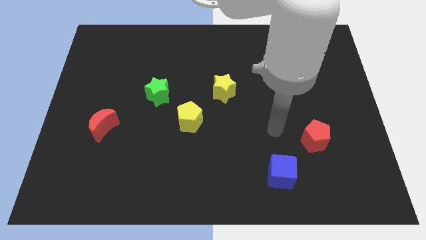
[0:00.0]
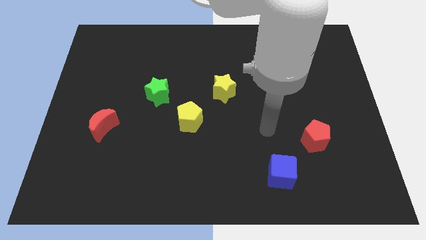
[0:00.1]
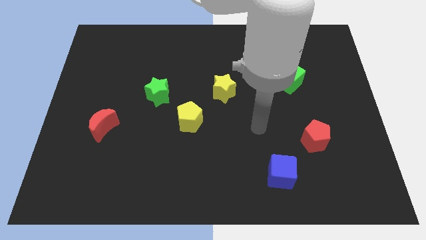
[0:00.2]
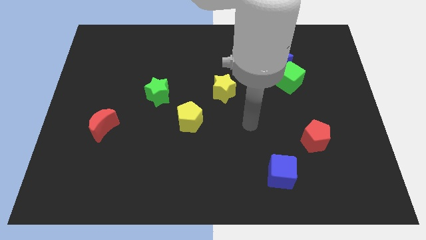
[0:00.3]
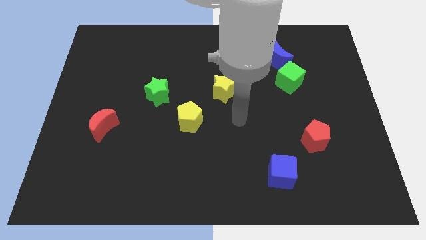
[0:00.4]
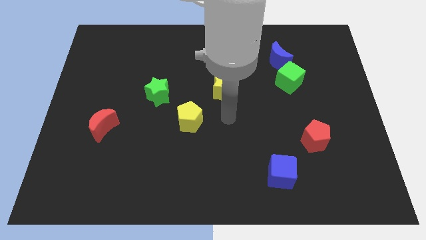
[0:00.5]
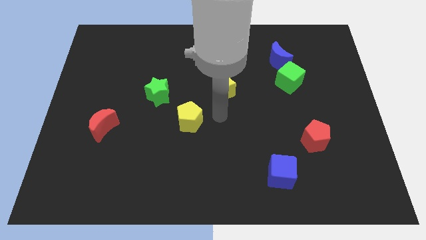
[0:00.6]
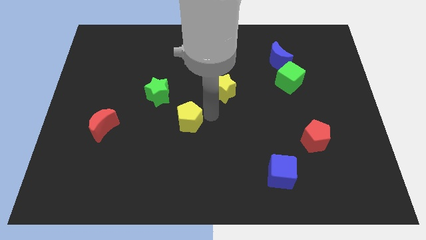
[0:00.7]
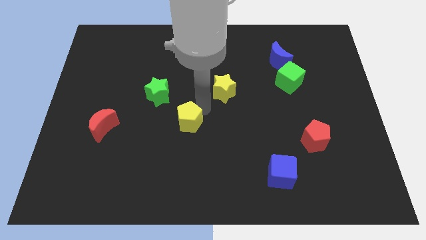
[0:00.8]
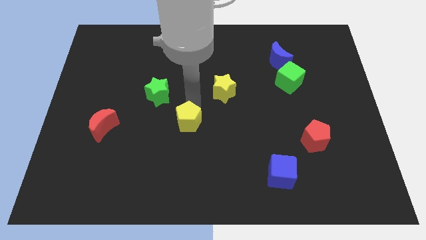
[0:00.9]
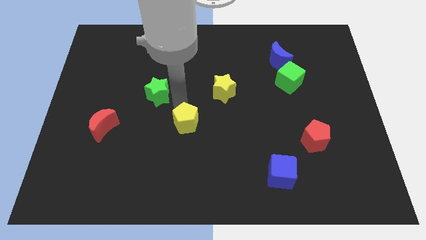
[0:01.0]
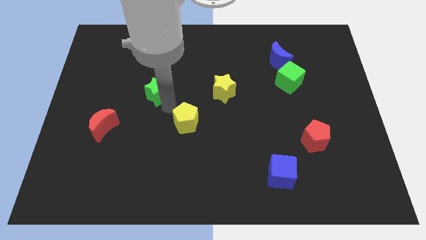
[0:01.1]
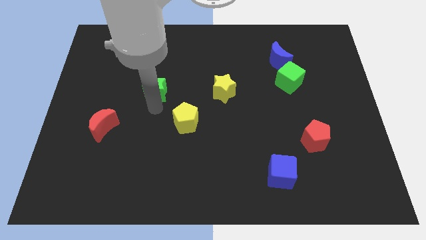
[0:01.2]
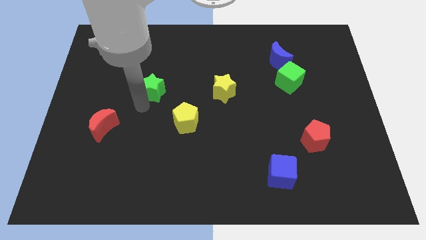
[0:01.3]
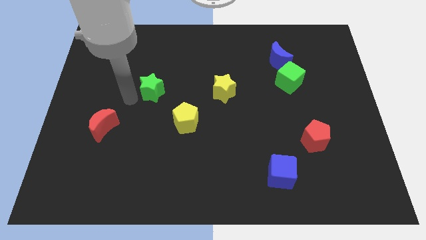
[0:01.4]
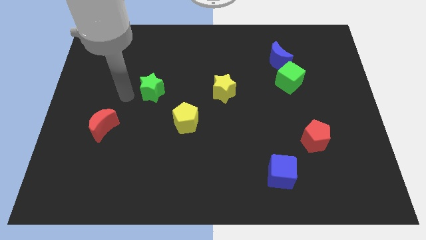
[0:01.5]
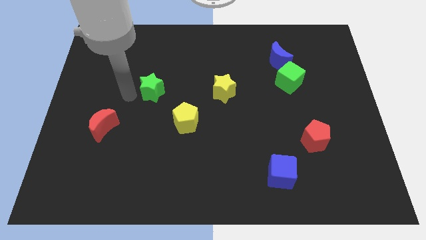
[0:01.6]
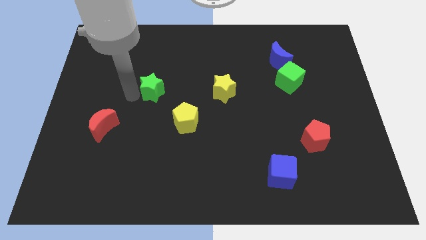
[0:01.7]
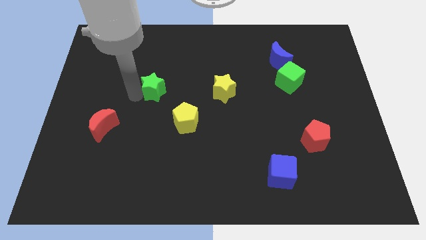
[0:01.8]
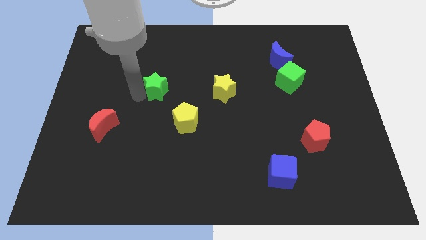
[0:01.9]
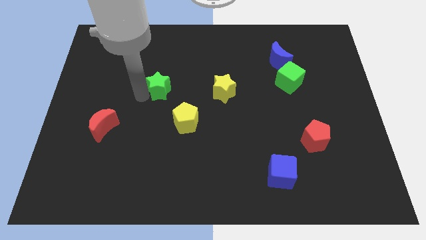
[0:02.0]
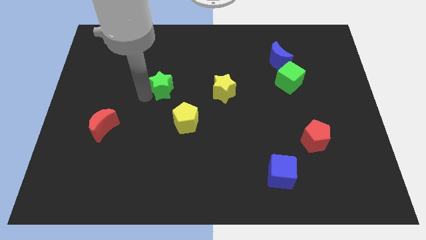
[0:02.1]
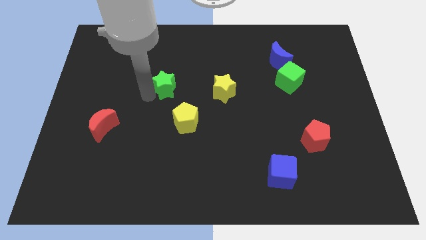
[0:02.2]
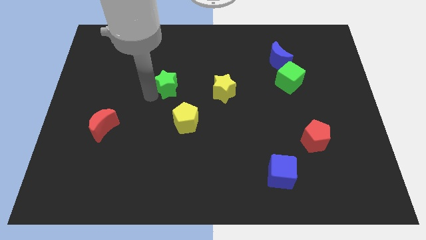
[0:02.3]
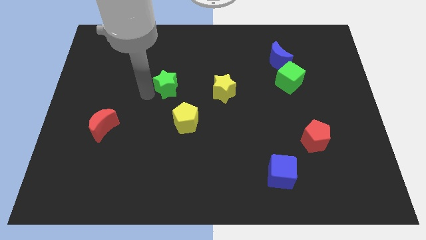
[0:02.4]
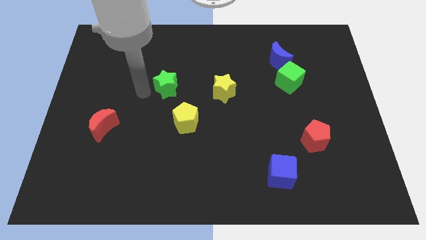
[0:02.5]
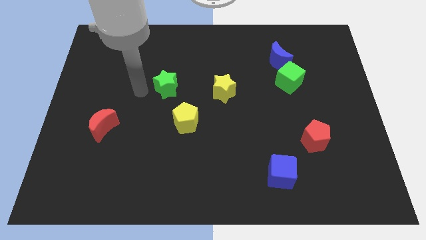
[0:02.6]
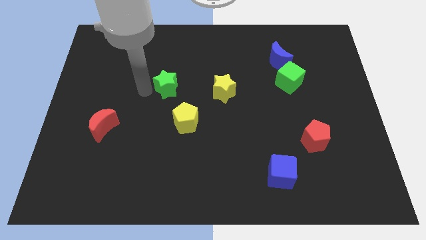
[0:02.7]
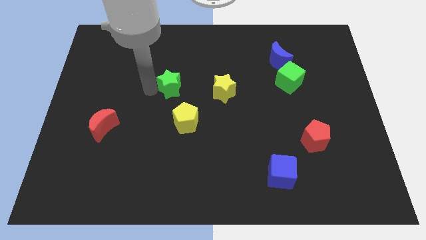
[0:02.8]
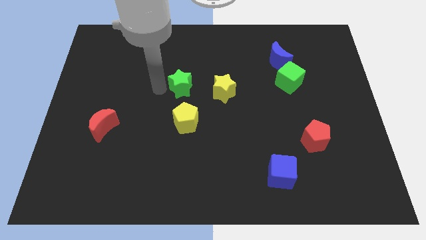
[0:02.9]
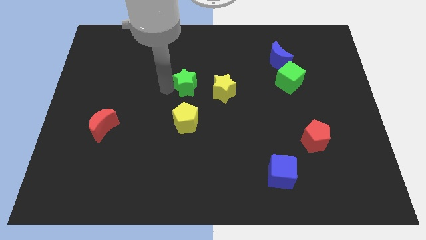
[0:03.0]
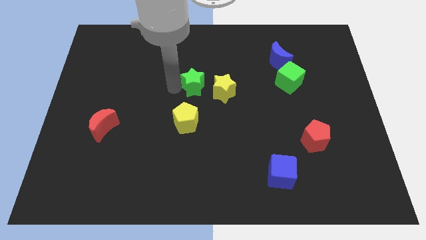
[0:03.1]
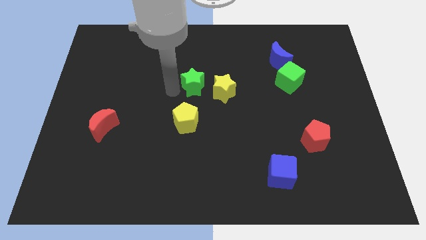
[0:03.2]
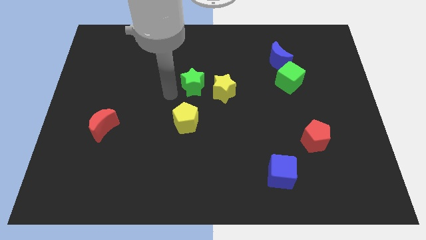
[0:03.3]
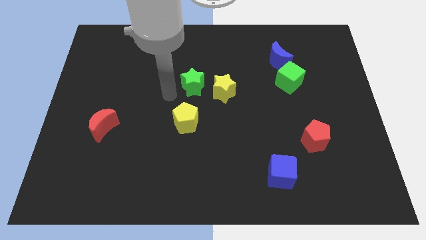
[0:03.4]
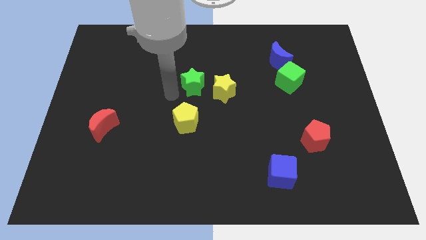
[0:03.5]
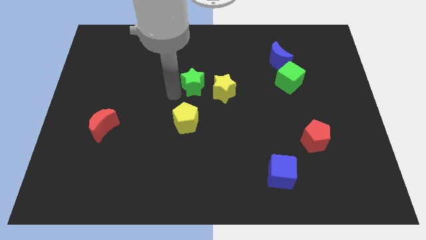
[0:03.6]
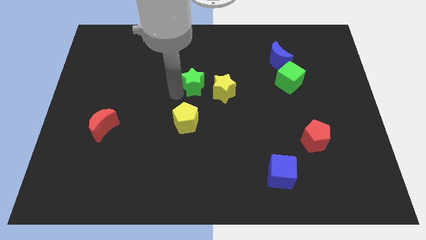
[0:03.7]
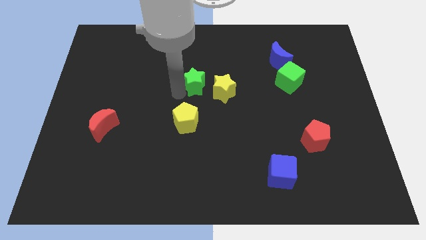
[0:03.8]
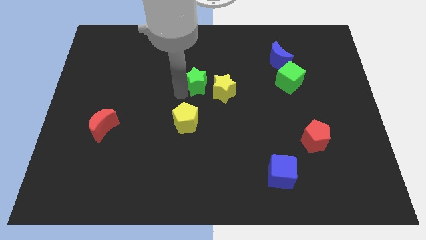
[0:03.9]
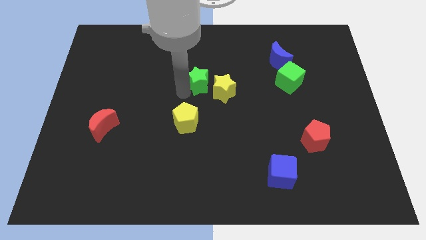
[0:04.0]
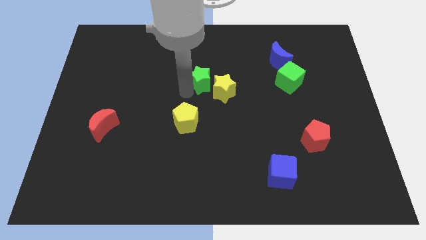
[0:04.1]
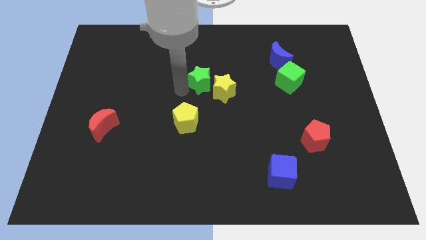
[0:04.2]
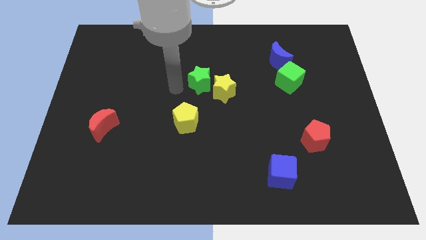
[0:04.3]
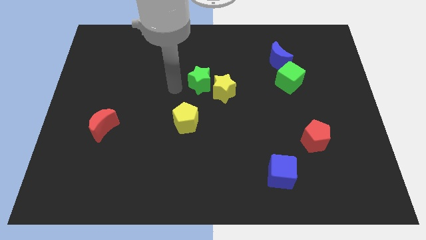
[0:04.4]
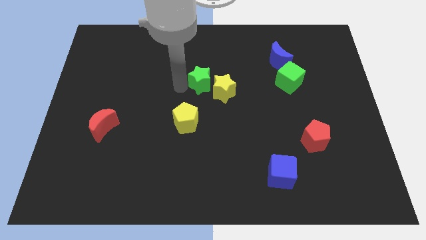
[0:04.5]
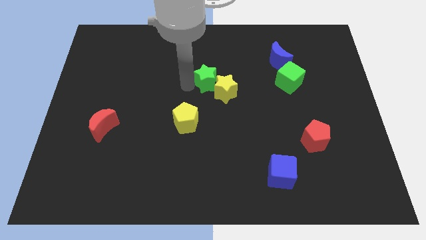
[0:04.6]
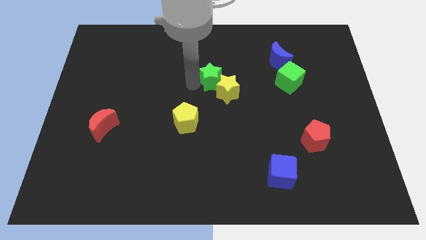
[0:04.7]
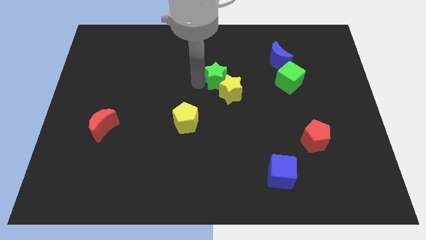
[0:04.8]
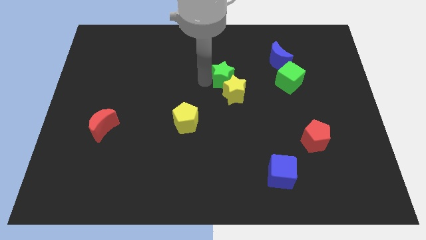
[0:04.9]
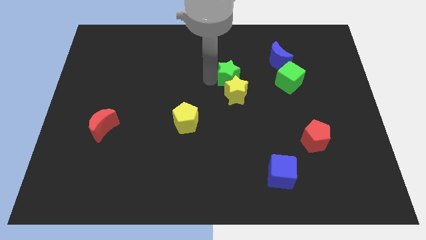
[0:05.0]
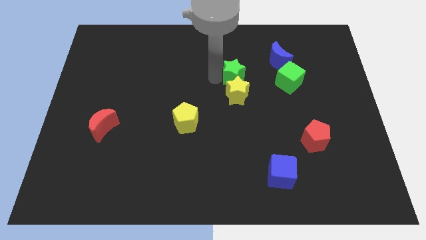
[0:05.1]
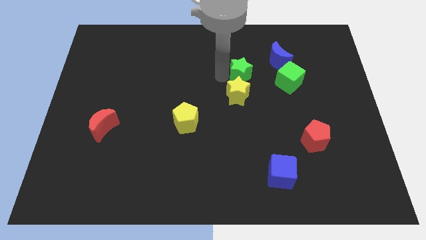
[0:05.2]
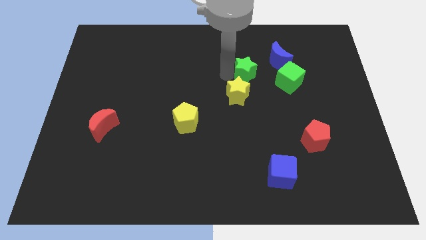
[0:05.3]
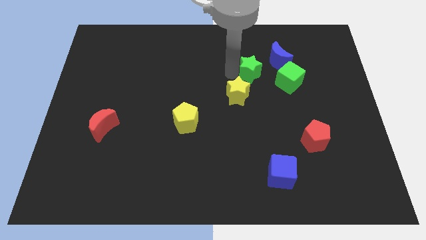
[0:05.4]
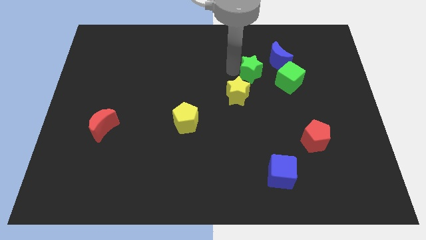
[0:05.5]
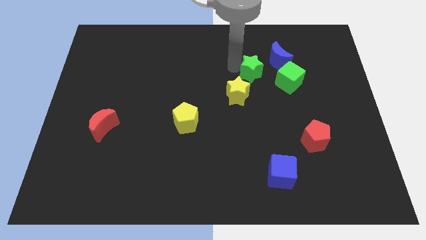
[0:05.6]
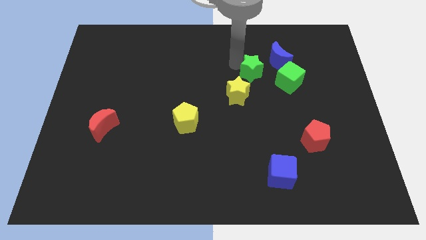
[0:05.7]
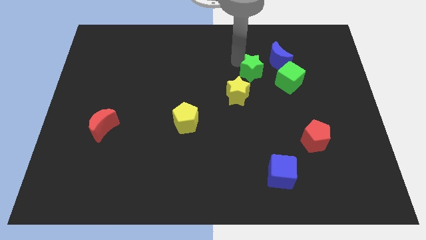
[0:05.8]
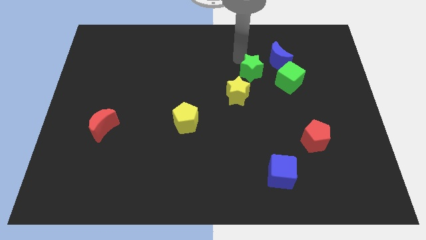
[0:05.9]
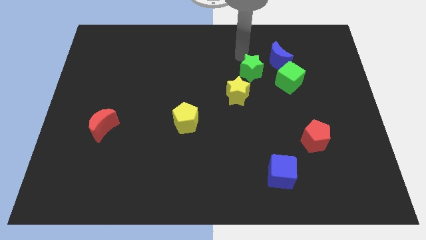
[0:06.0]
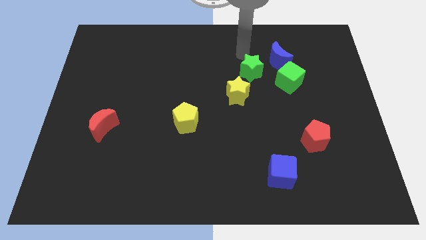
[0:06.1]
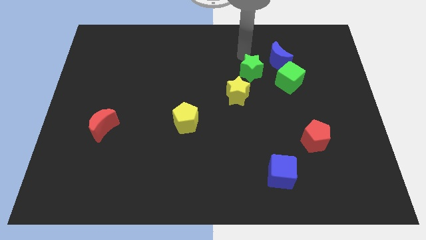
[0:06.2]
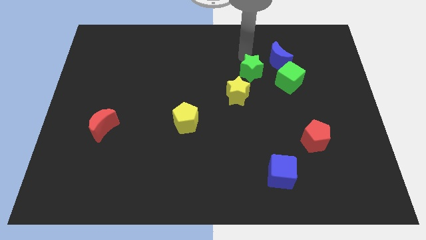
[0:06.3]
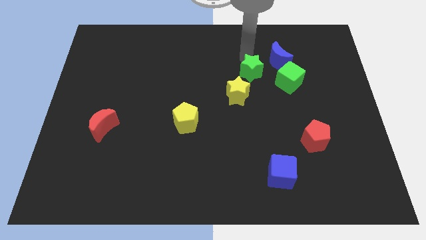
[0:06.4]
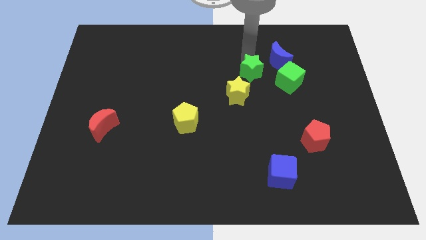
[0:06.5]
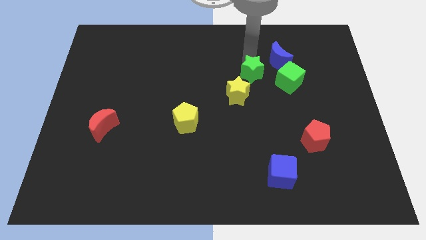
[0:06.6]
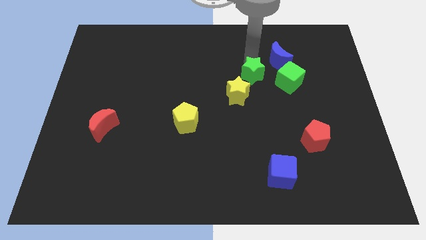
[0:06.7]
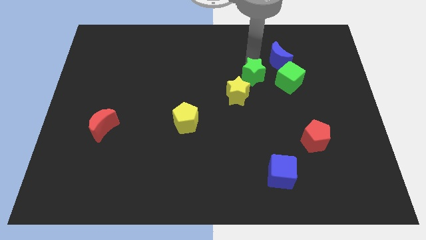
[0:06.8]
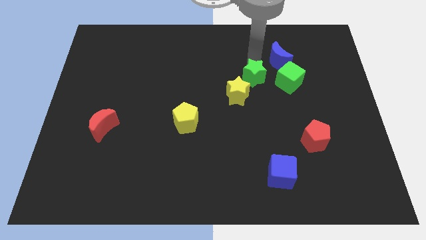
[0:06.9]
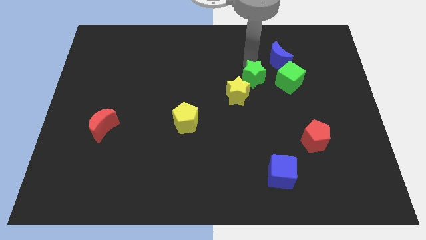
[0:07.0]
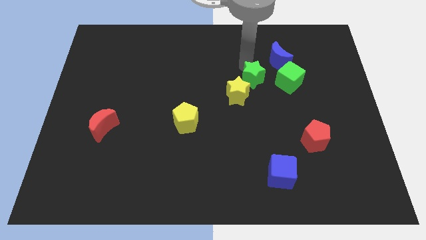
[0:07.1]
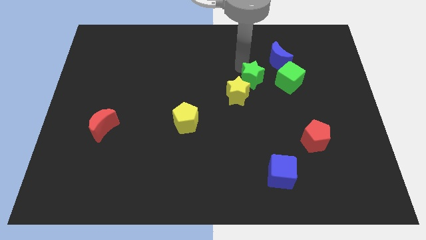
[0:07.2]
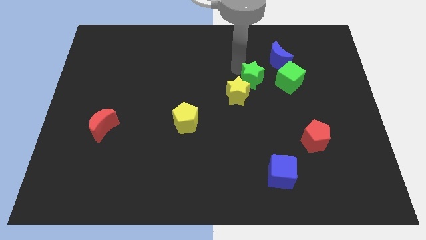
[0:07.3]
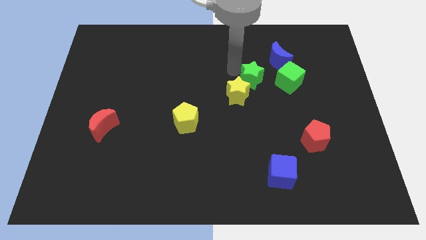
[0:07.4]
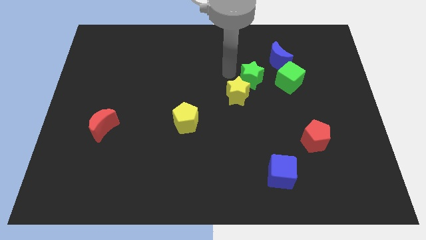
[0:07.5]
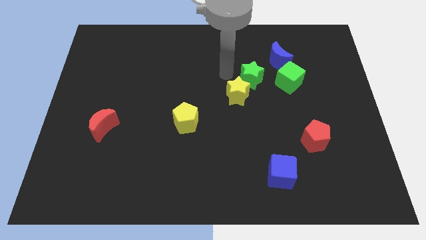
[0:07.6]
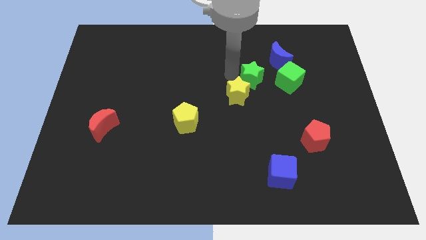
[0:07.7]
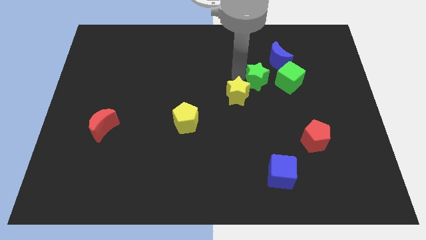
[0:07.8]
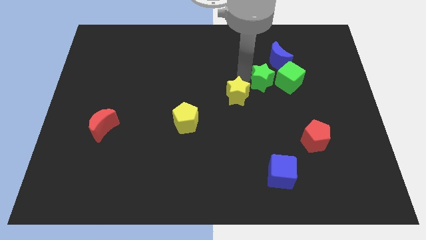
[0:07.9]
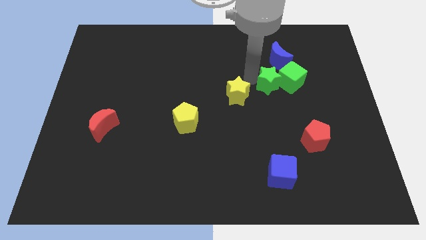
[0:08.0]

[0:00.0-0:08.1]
slide the green star close to the green cube
